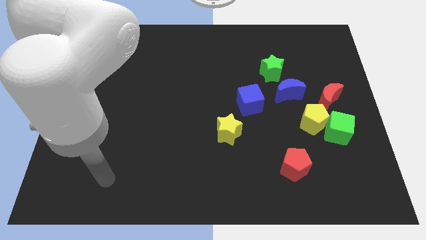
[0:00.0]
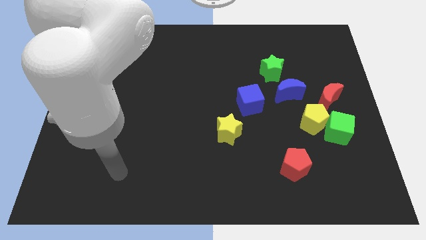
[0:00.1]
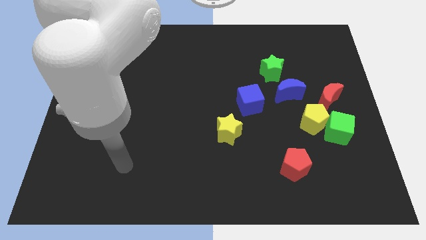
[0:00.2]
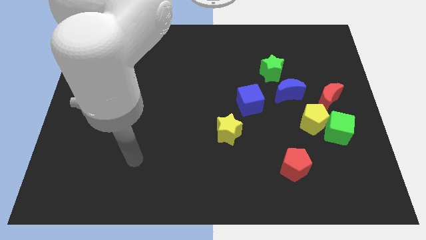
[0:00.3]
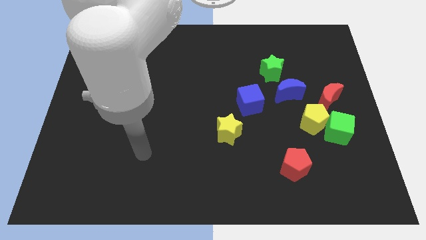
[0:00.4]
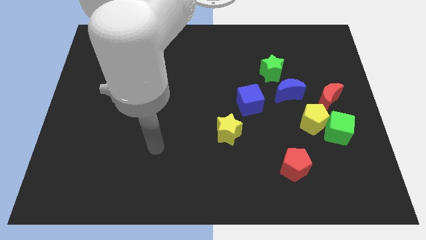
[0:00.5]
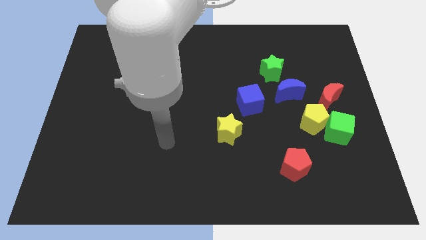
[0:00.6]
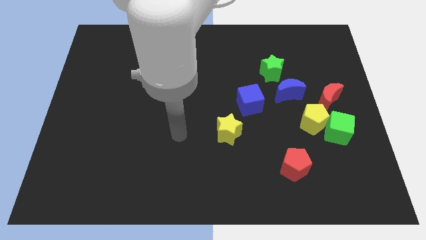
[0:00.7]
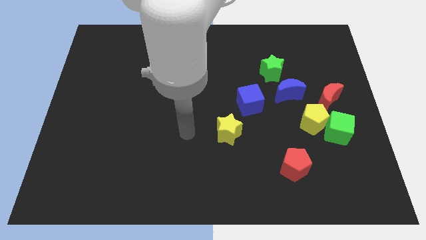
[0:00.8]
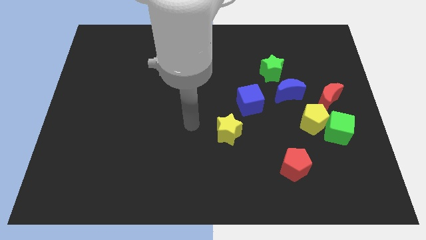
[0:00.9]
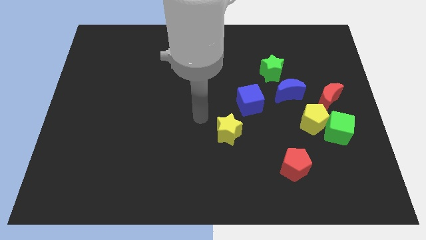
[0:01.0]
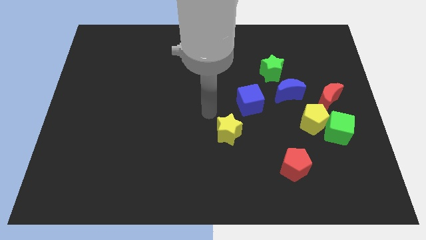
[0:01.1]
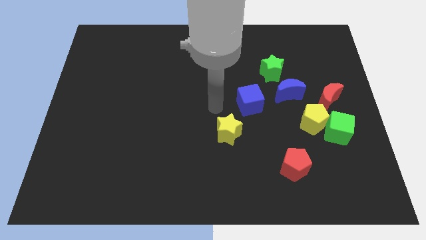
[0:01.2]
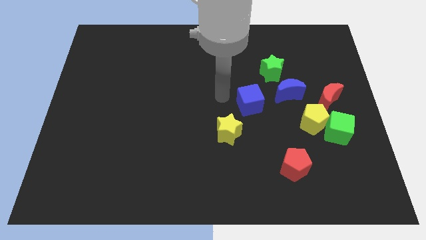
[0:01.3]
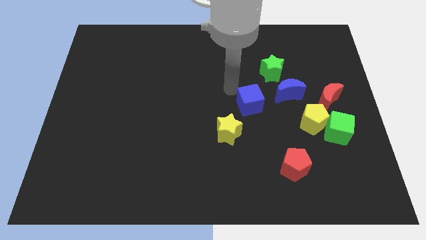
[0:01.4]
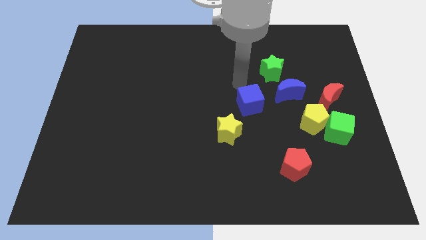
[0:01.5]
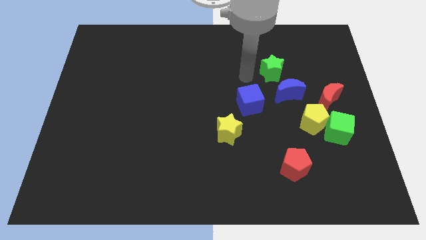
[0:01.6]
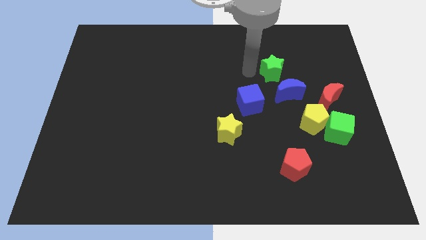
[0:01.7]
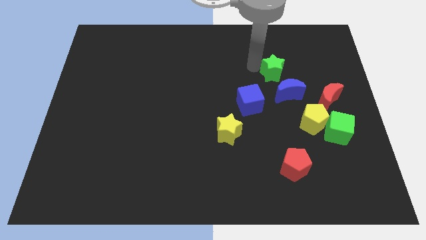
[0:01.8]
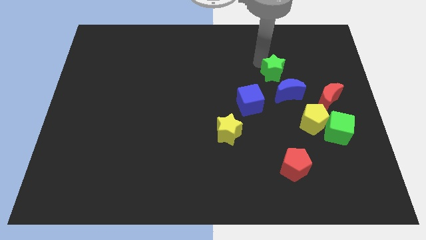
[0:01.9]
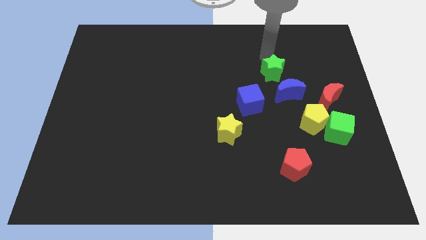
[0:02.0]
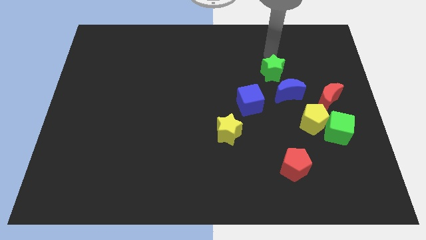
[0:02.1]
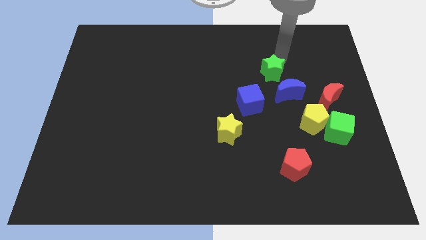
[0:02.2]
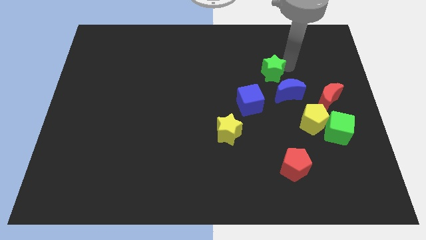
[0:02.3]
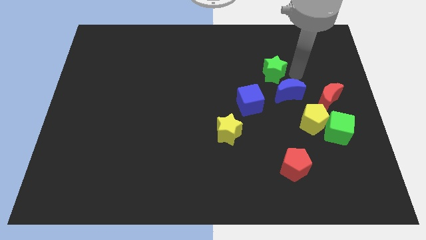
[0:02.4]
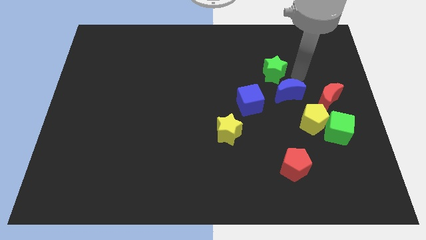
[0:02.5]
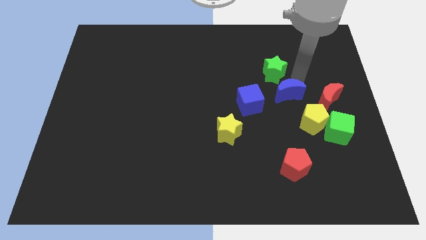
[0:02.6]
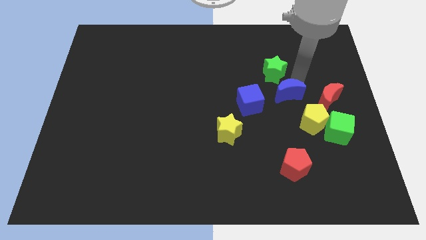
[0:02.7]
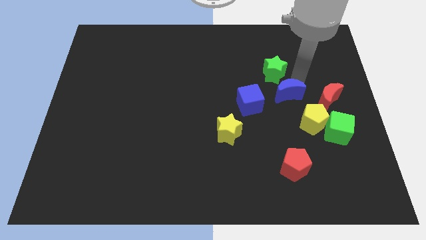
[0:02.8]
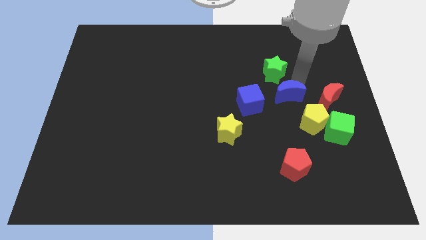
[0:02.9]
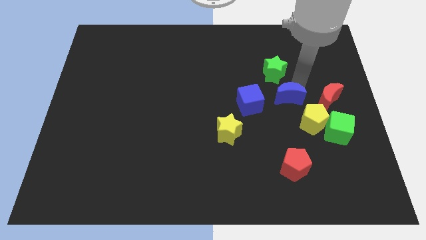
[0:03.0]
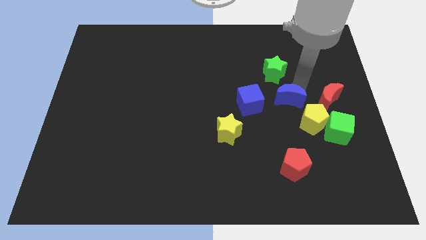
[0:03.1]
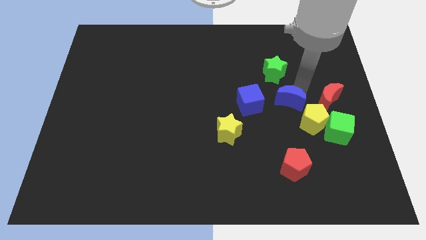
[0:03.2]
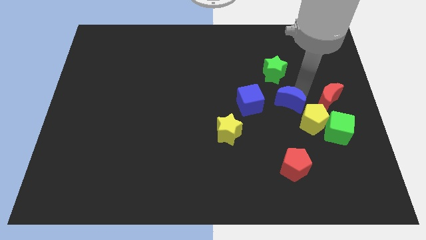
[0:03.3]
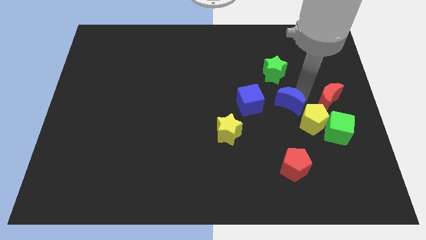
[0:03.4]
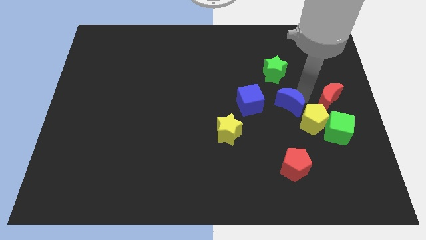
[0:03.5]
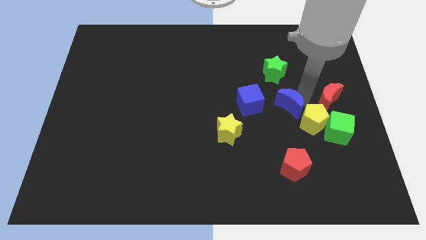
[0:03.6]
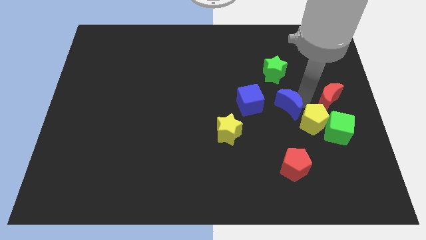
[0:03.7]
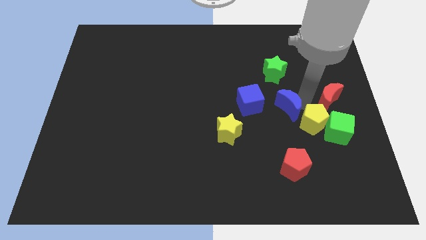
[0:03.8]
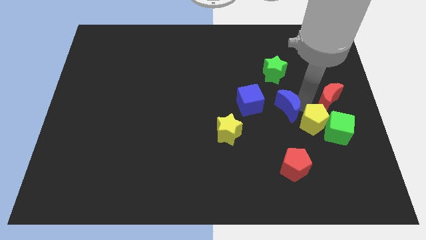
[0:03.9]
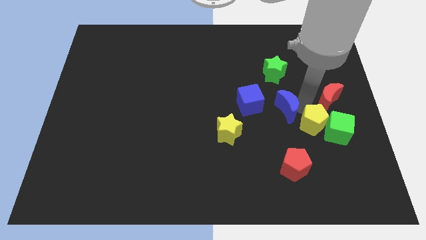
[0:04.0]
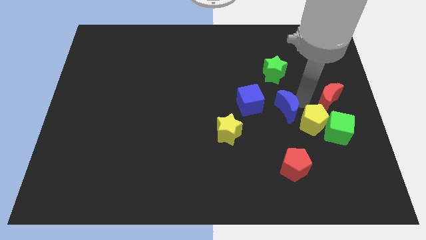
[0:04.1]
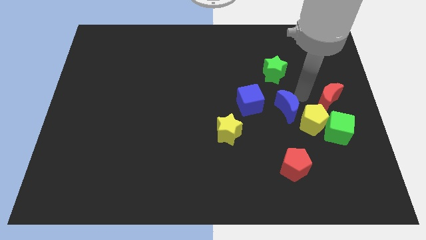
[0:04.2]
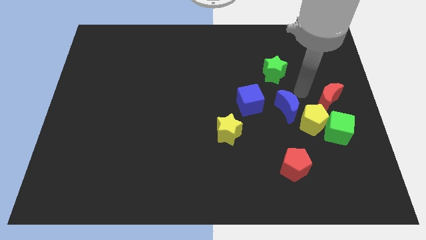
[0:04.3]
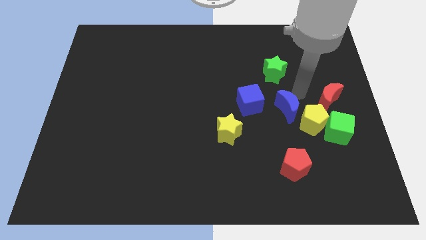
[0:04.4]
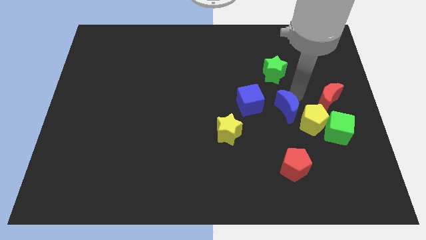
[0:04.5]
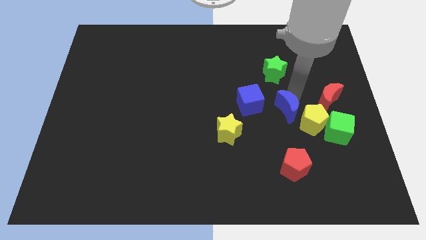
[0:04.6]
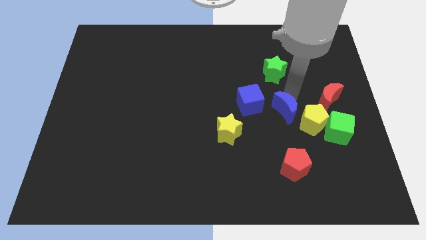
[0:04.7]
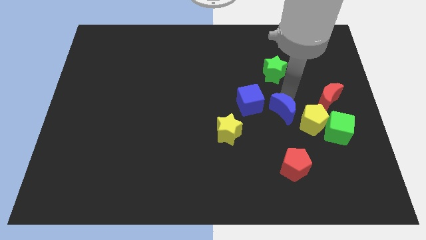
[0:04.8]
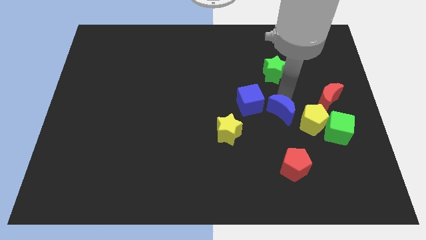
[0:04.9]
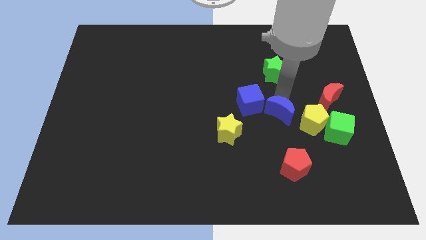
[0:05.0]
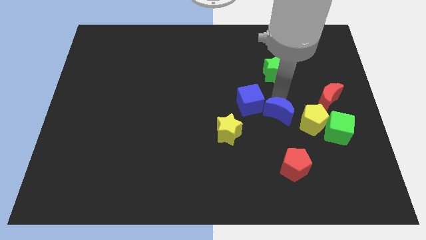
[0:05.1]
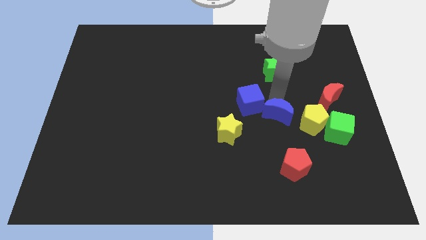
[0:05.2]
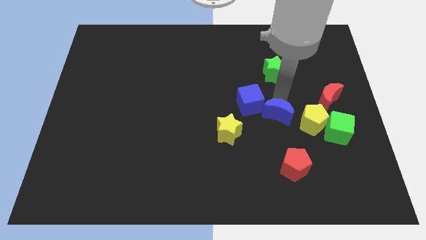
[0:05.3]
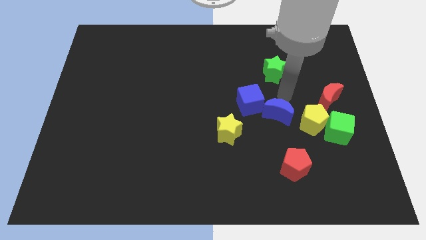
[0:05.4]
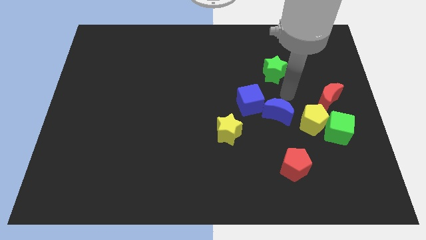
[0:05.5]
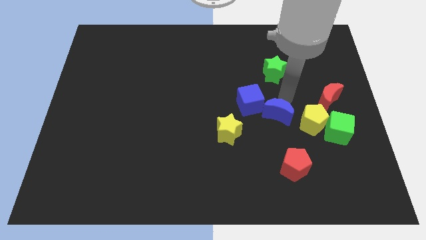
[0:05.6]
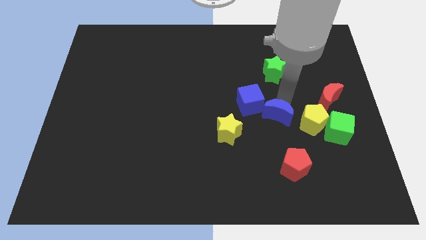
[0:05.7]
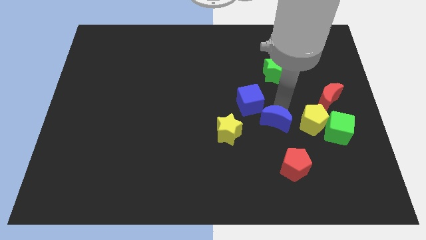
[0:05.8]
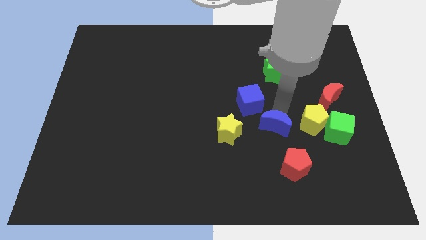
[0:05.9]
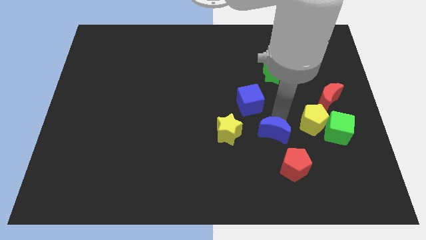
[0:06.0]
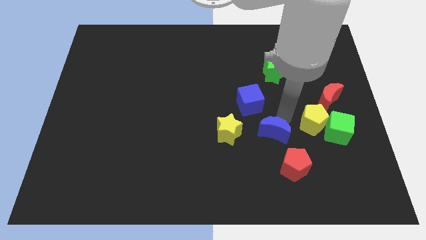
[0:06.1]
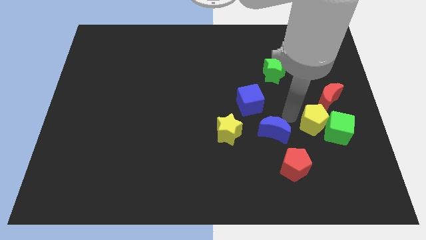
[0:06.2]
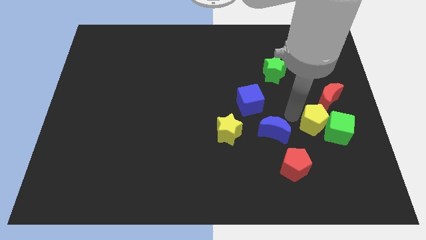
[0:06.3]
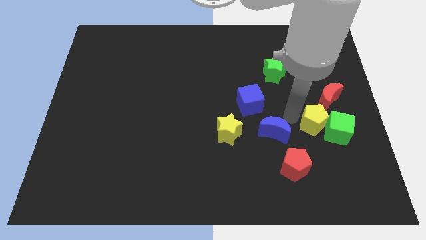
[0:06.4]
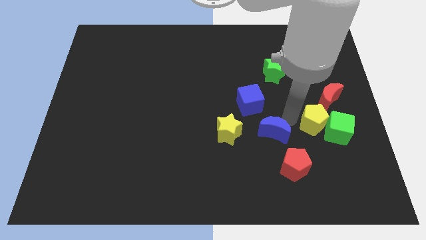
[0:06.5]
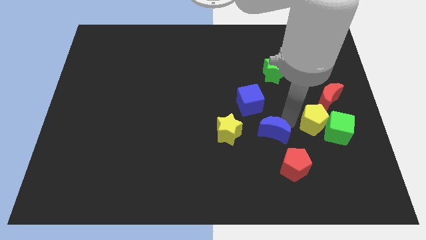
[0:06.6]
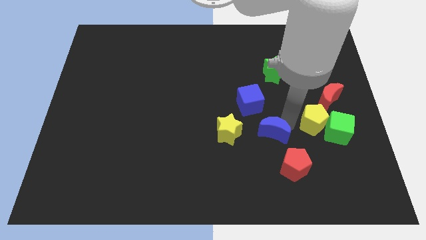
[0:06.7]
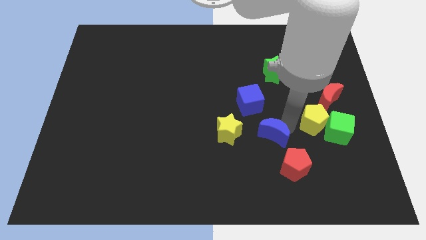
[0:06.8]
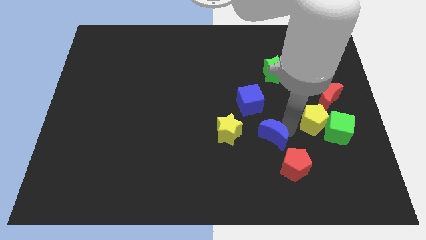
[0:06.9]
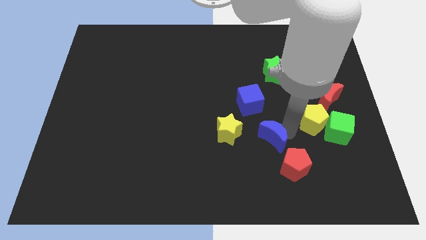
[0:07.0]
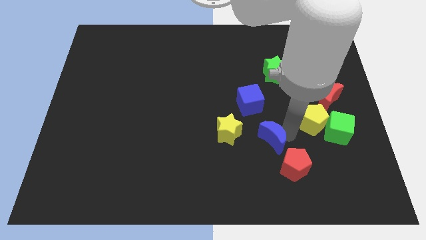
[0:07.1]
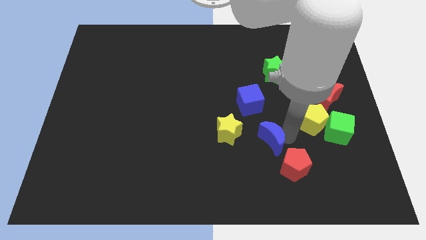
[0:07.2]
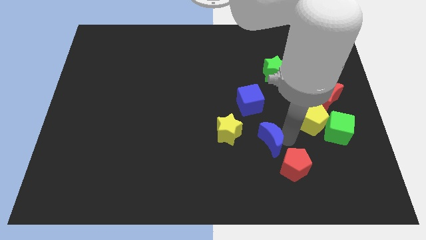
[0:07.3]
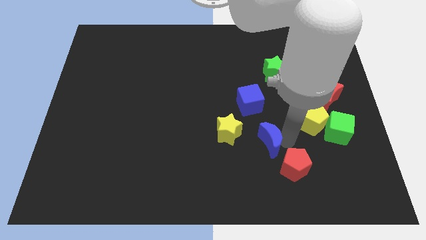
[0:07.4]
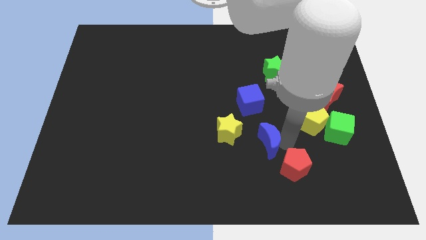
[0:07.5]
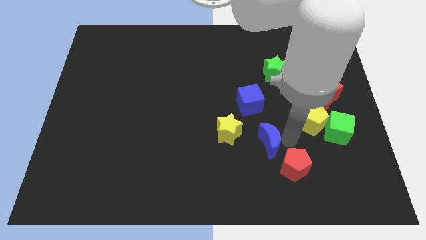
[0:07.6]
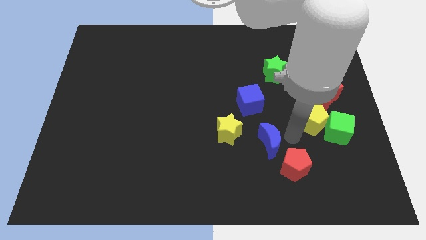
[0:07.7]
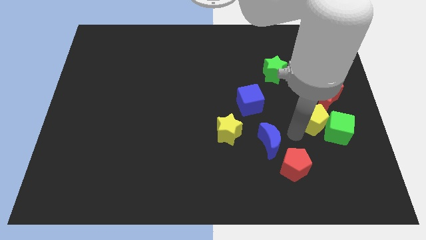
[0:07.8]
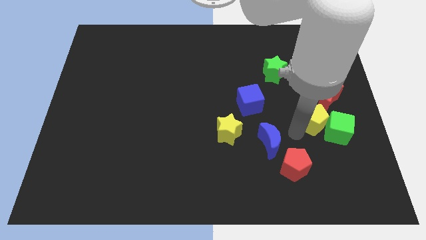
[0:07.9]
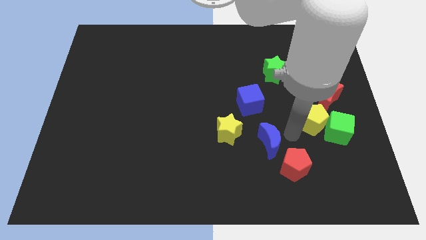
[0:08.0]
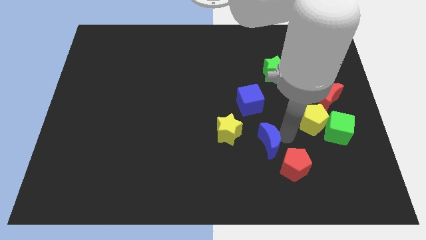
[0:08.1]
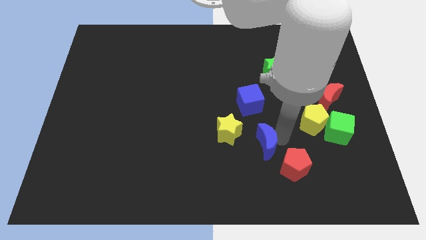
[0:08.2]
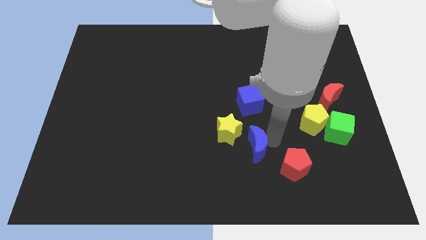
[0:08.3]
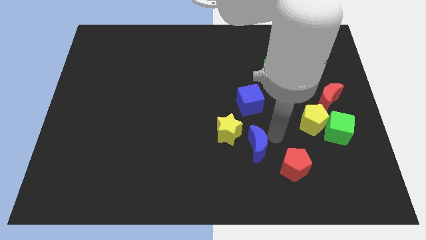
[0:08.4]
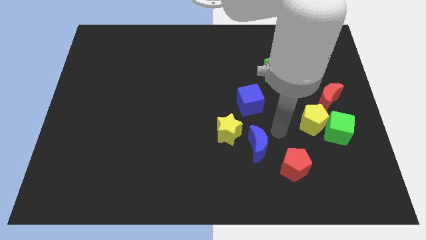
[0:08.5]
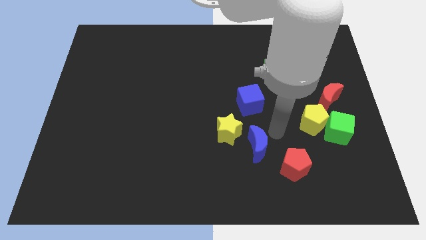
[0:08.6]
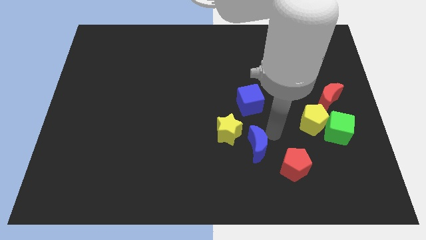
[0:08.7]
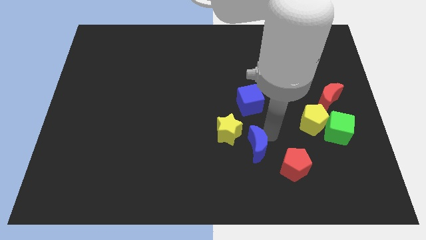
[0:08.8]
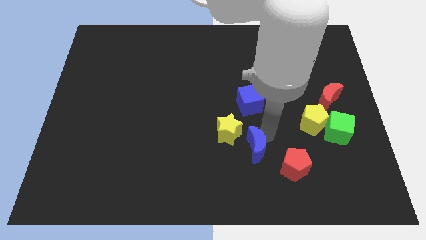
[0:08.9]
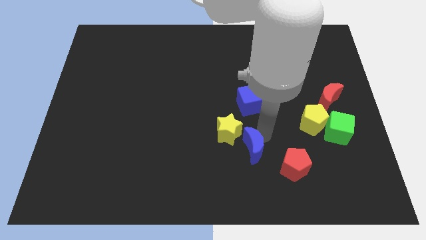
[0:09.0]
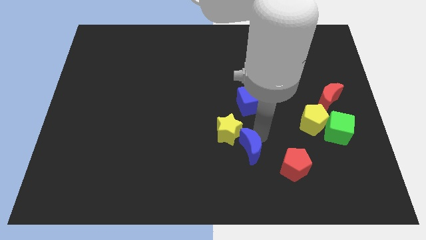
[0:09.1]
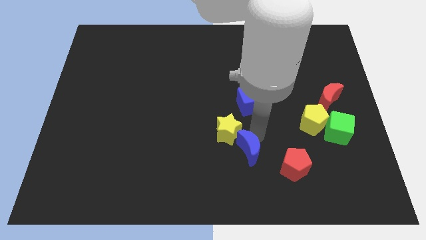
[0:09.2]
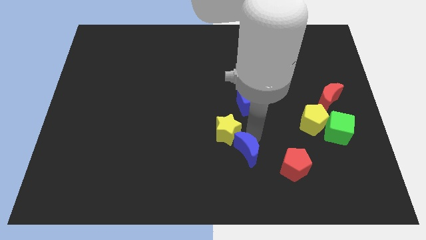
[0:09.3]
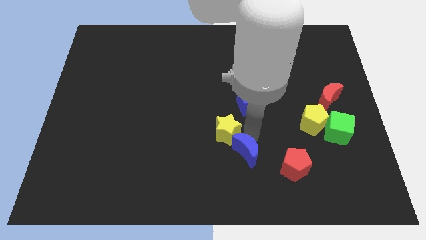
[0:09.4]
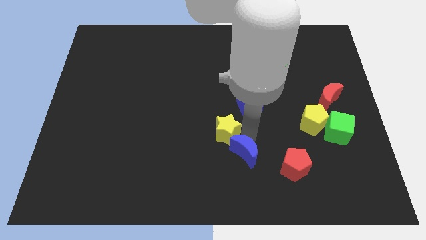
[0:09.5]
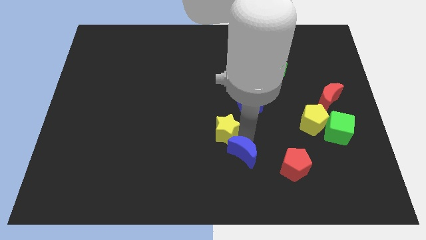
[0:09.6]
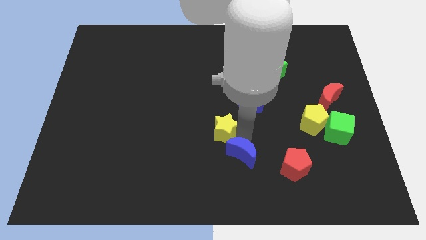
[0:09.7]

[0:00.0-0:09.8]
move the blue moon down and left
